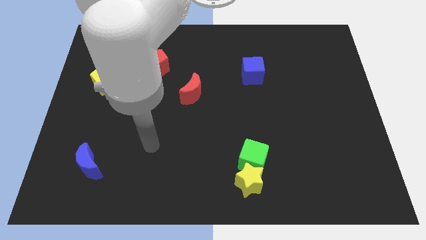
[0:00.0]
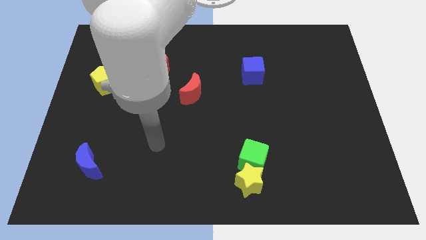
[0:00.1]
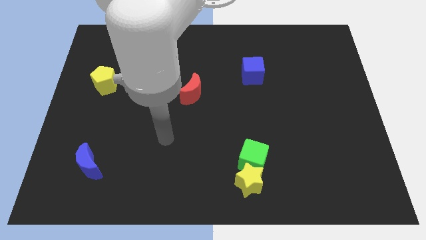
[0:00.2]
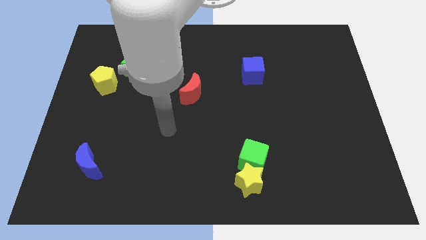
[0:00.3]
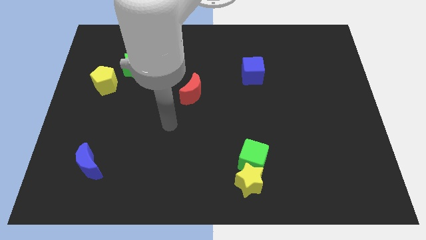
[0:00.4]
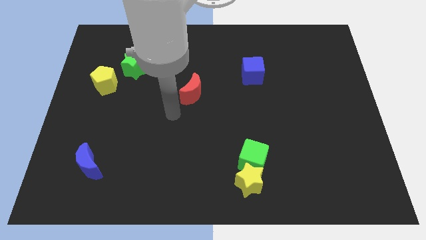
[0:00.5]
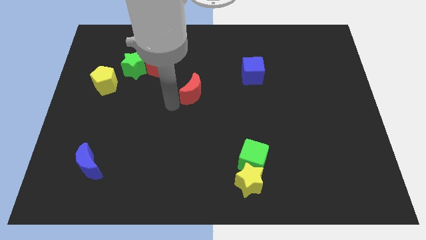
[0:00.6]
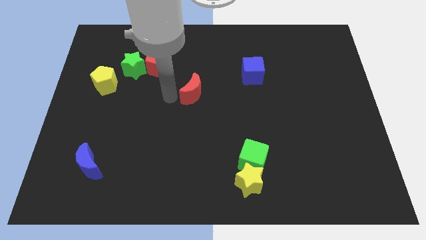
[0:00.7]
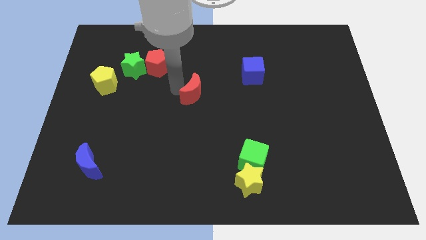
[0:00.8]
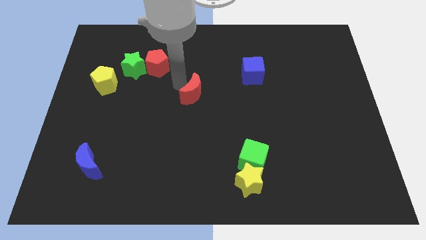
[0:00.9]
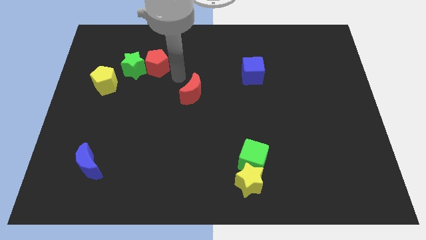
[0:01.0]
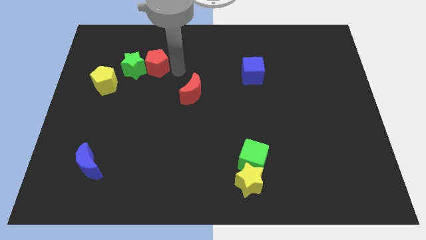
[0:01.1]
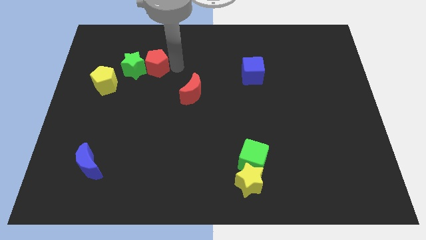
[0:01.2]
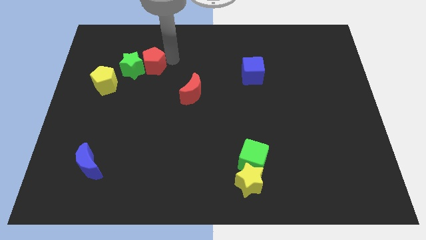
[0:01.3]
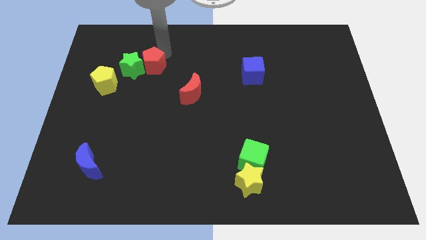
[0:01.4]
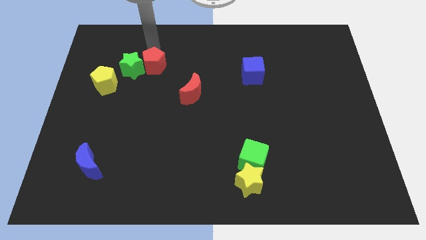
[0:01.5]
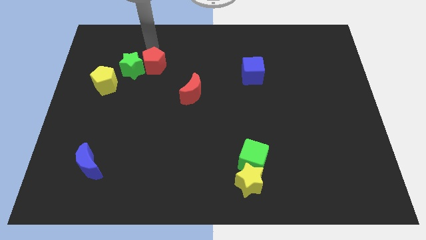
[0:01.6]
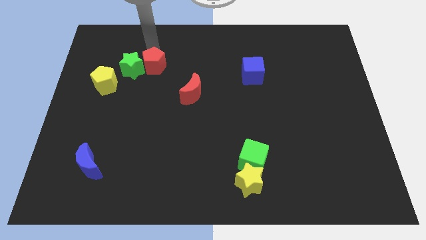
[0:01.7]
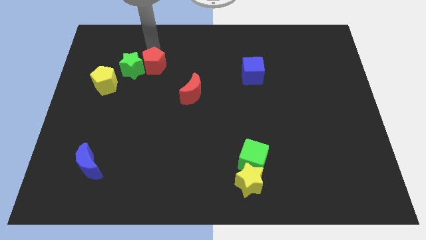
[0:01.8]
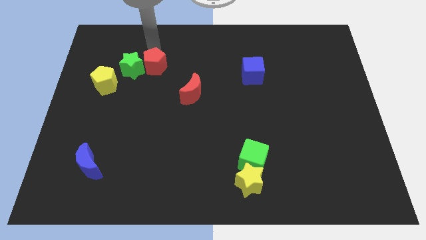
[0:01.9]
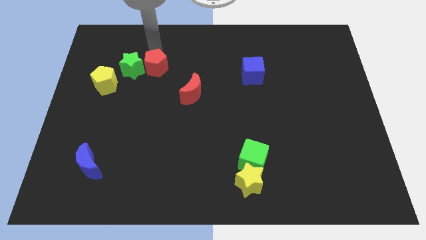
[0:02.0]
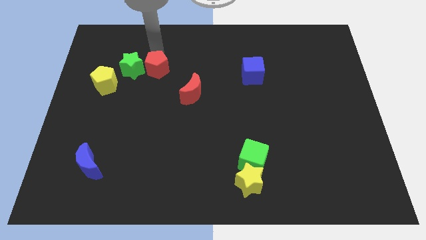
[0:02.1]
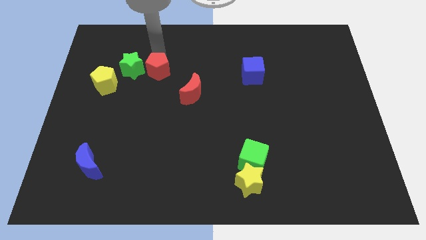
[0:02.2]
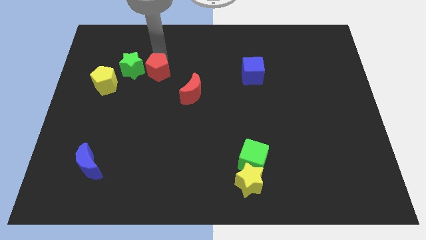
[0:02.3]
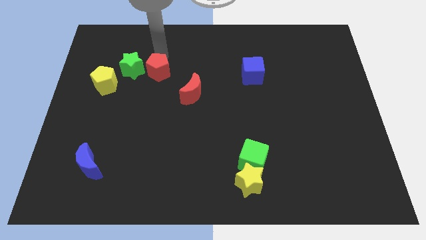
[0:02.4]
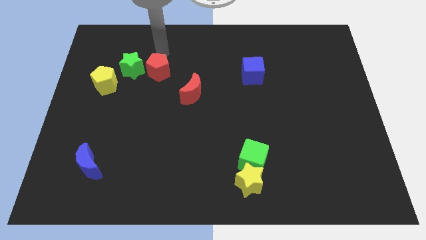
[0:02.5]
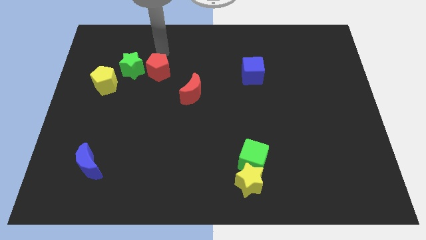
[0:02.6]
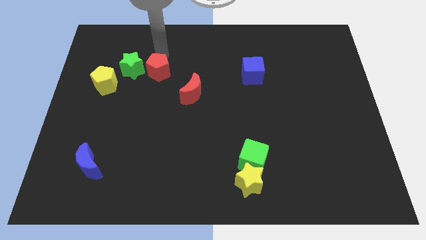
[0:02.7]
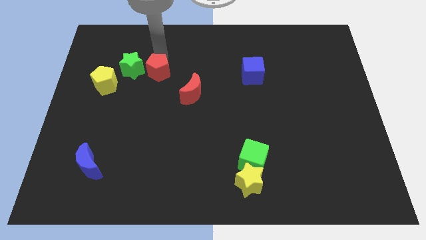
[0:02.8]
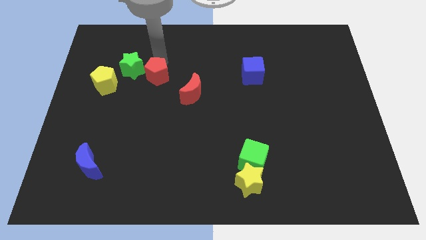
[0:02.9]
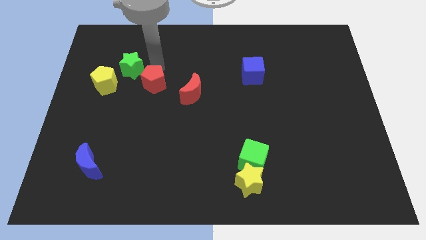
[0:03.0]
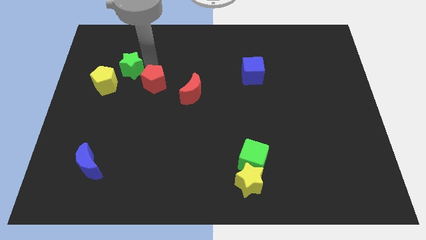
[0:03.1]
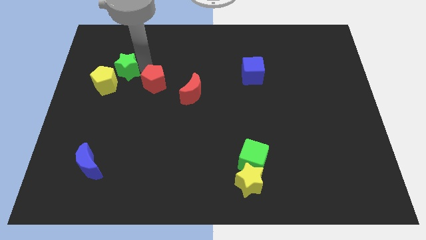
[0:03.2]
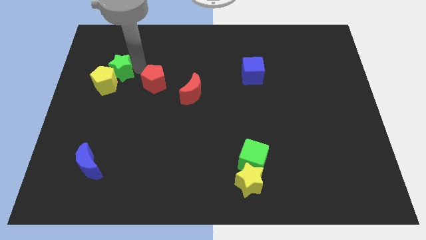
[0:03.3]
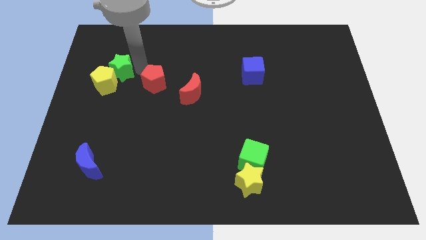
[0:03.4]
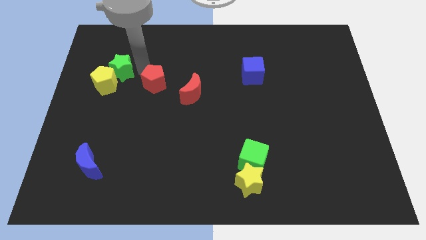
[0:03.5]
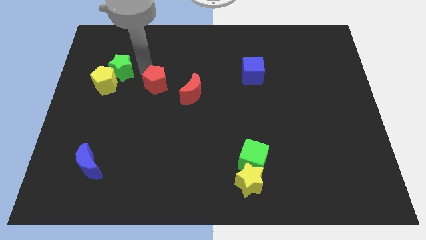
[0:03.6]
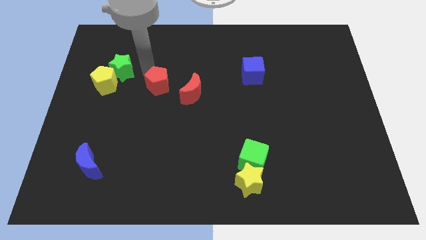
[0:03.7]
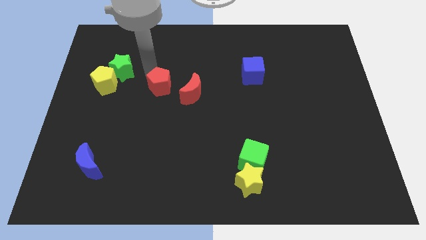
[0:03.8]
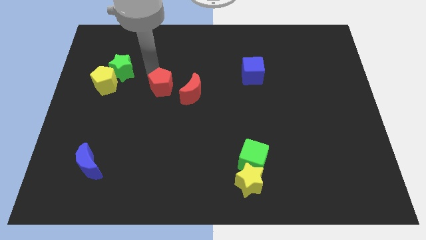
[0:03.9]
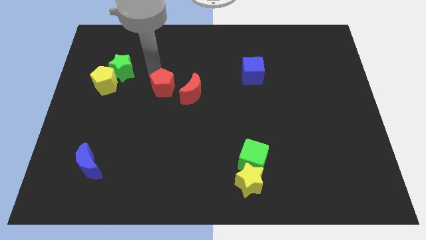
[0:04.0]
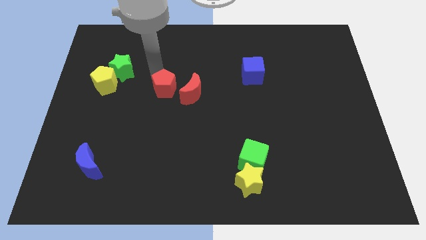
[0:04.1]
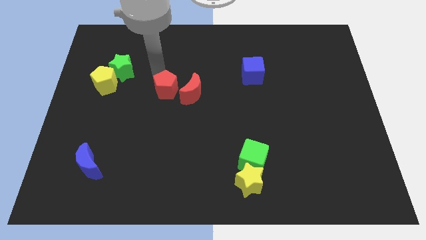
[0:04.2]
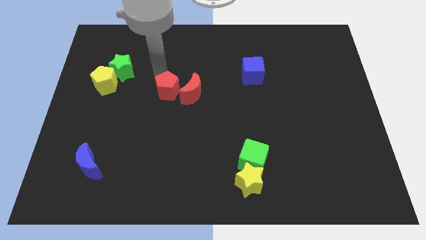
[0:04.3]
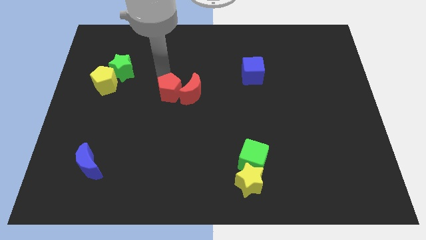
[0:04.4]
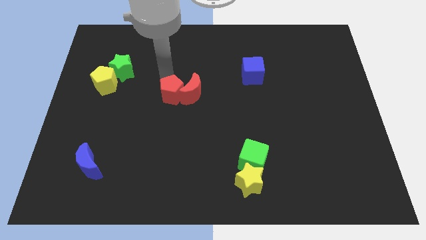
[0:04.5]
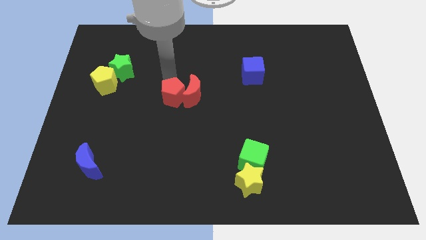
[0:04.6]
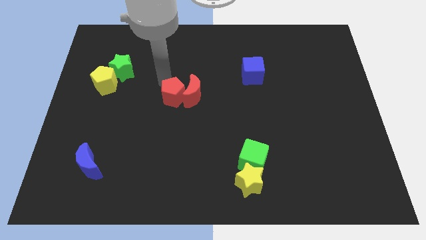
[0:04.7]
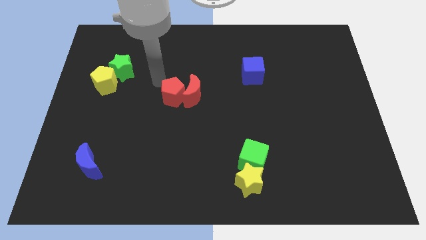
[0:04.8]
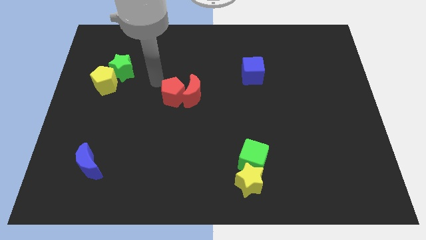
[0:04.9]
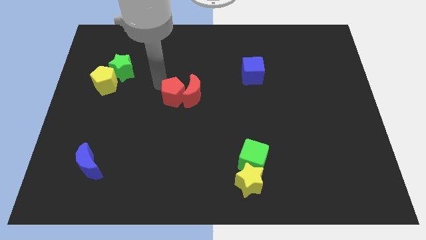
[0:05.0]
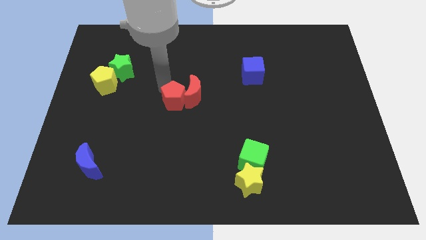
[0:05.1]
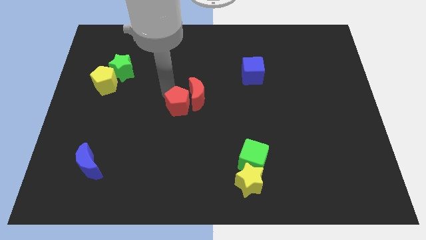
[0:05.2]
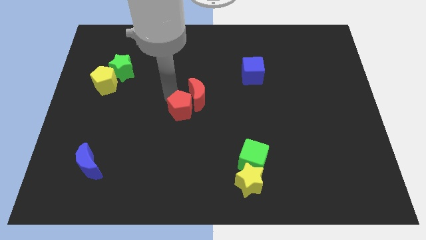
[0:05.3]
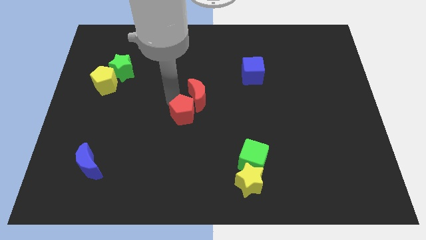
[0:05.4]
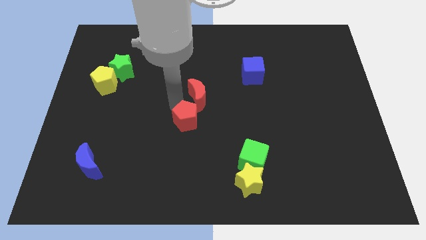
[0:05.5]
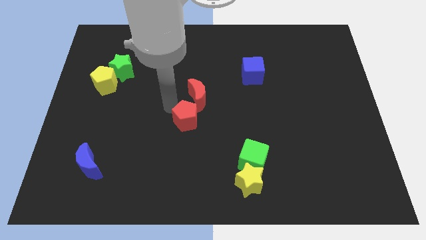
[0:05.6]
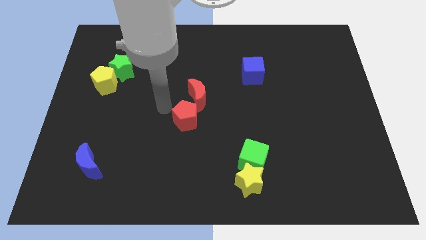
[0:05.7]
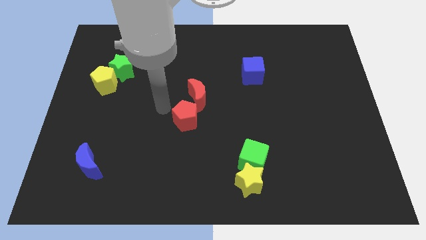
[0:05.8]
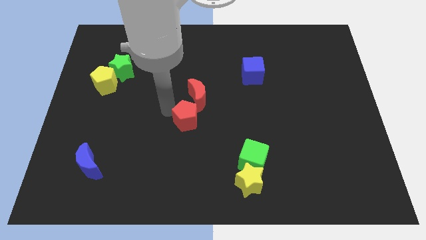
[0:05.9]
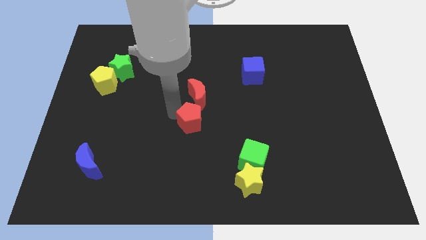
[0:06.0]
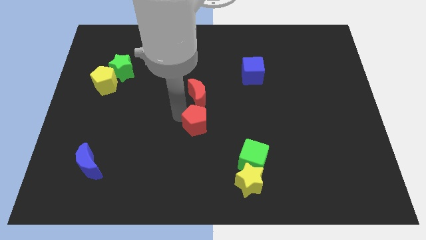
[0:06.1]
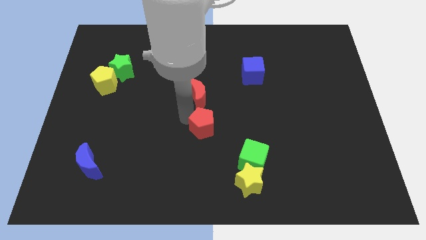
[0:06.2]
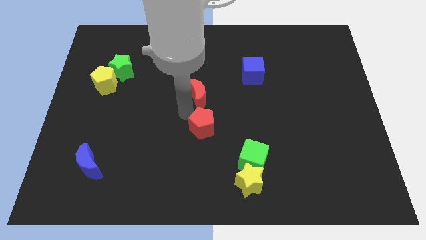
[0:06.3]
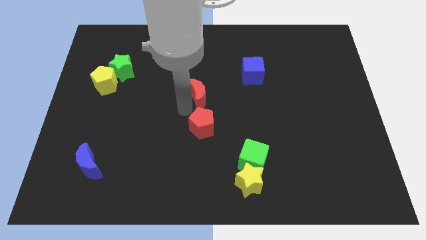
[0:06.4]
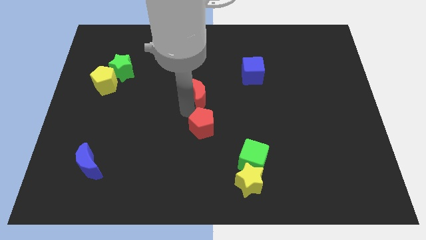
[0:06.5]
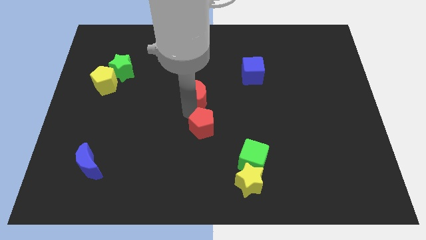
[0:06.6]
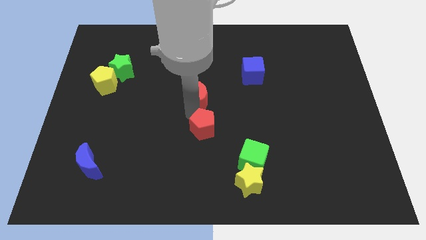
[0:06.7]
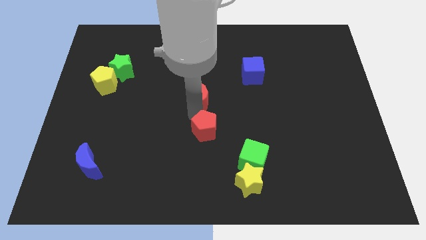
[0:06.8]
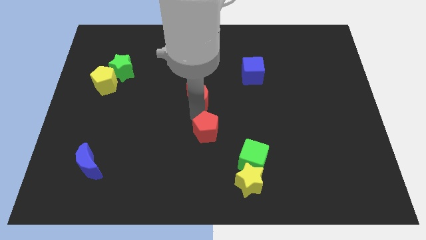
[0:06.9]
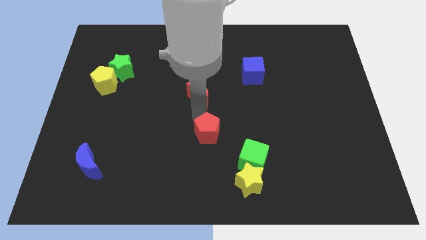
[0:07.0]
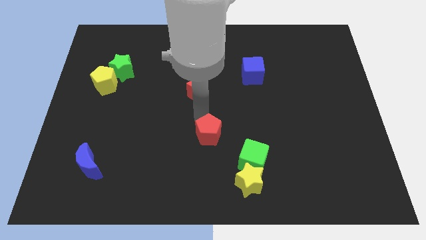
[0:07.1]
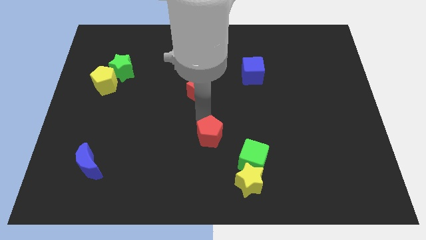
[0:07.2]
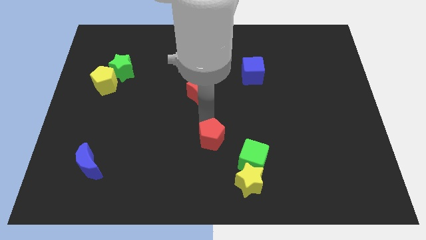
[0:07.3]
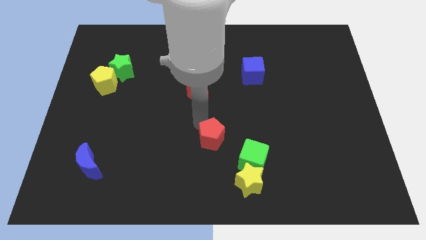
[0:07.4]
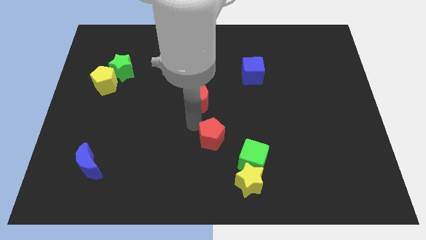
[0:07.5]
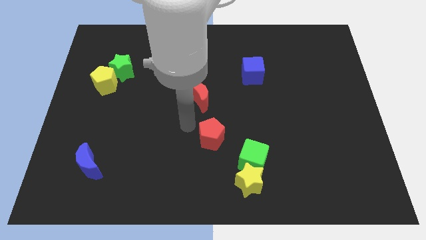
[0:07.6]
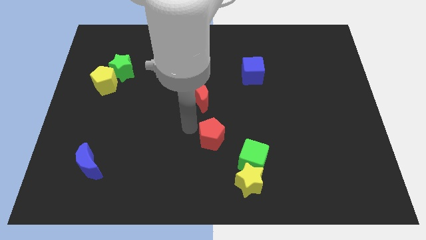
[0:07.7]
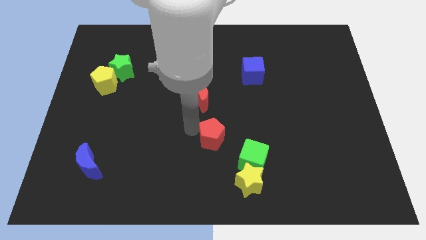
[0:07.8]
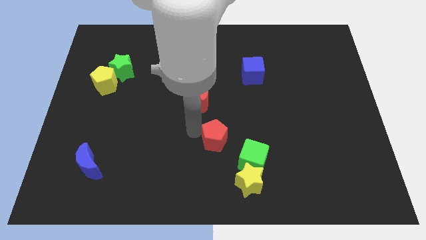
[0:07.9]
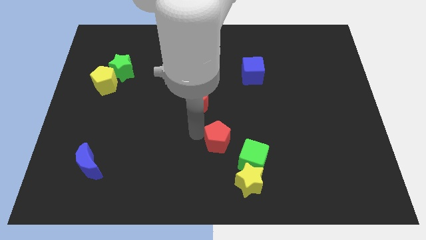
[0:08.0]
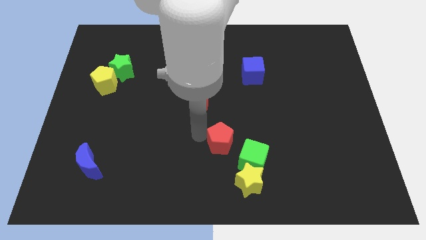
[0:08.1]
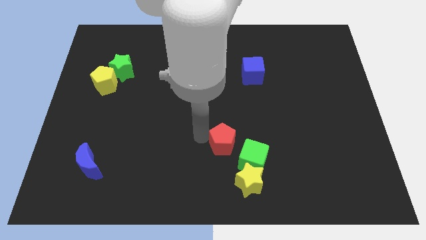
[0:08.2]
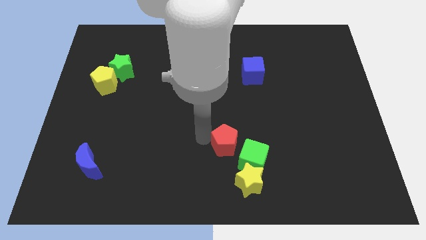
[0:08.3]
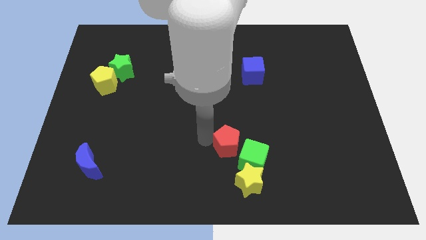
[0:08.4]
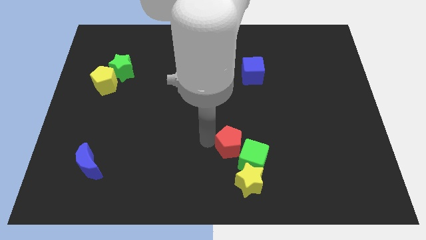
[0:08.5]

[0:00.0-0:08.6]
put the red pentagon close to the green cube
